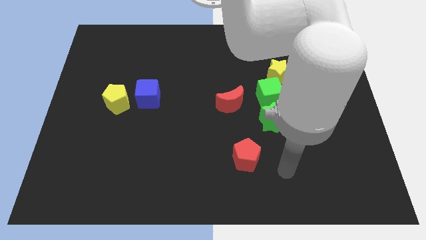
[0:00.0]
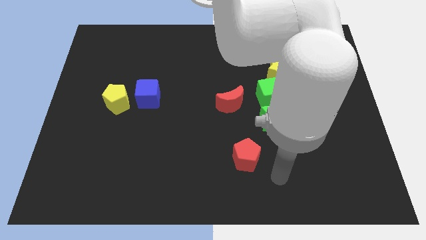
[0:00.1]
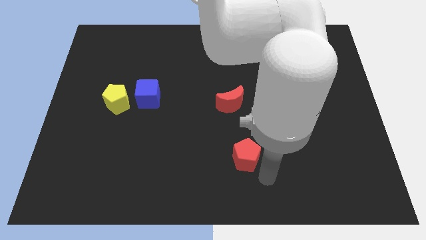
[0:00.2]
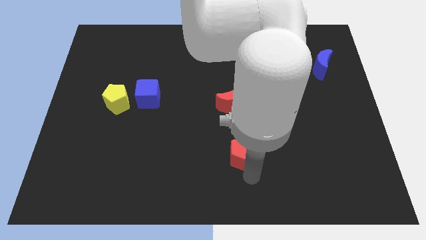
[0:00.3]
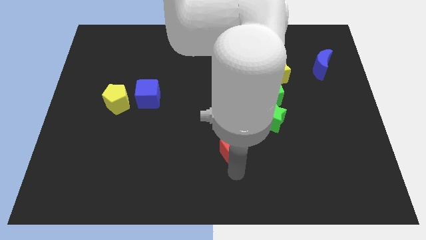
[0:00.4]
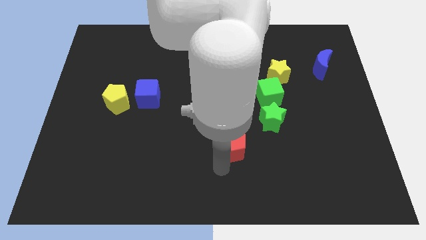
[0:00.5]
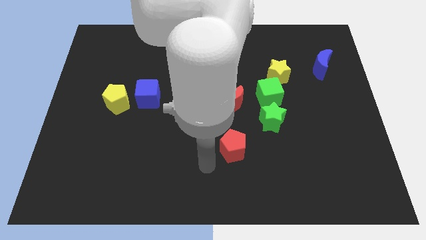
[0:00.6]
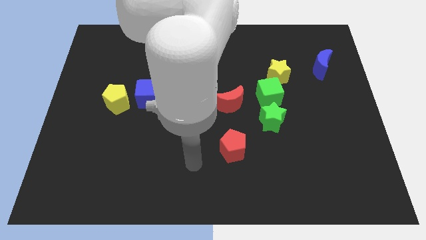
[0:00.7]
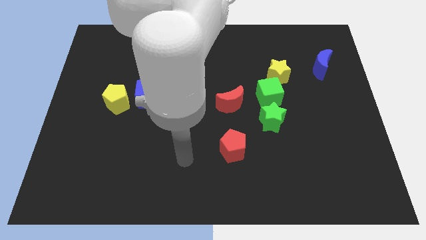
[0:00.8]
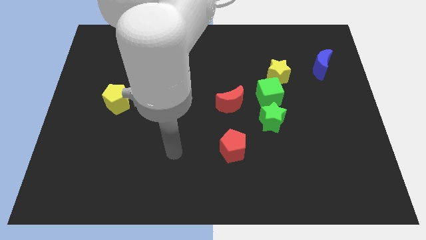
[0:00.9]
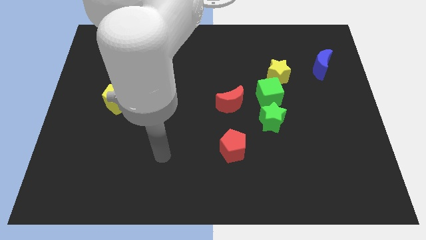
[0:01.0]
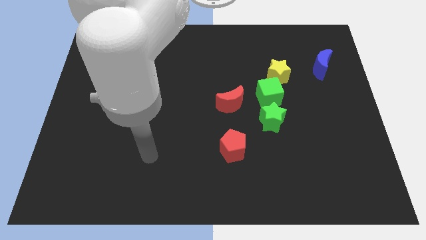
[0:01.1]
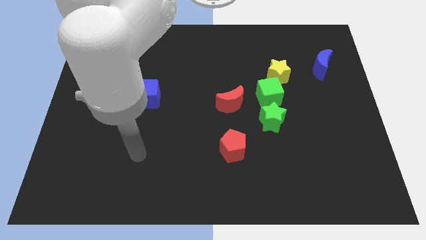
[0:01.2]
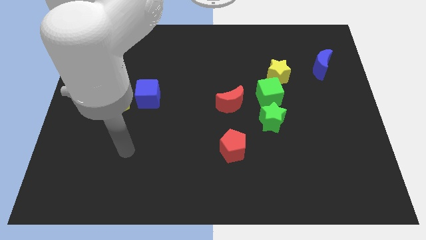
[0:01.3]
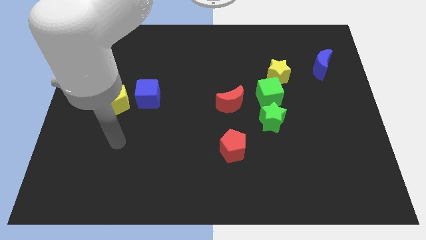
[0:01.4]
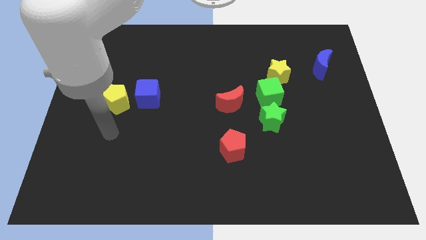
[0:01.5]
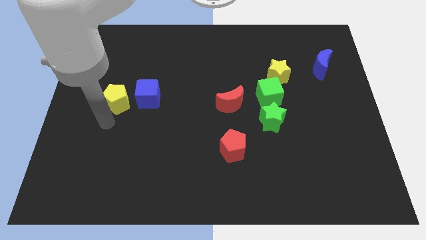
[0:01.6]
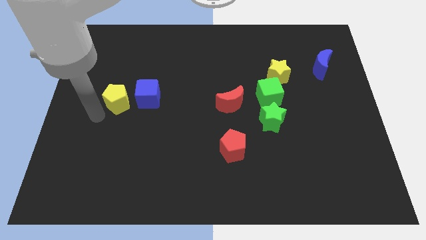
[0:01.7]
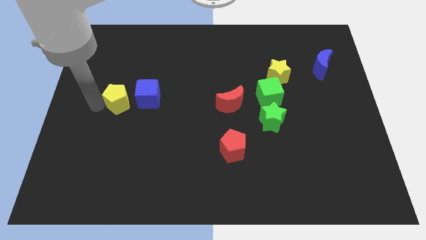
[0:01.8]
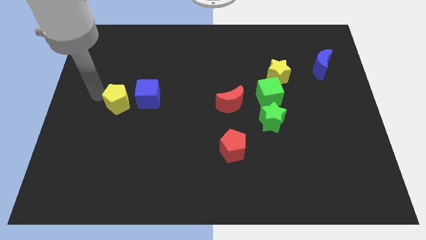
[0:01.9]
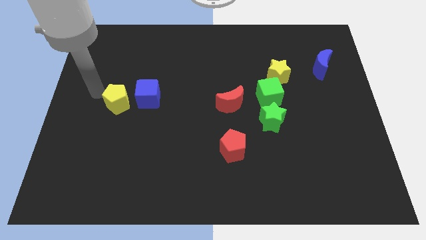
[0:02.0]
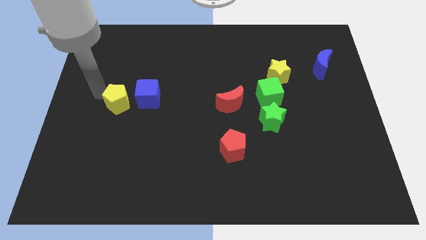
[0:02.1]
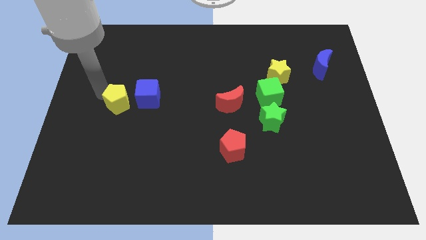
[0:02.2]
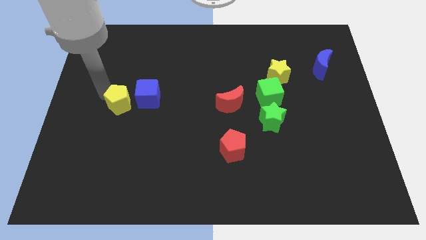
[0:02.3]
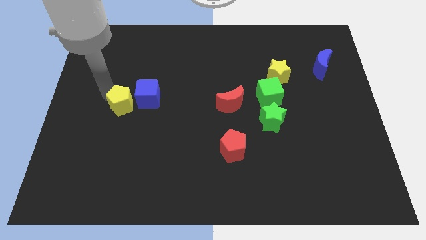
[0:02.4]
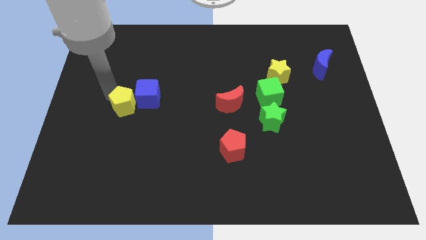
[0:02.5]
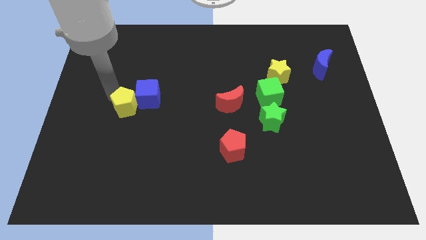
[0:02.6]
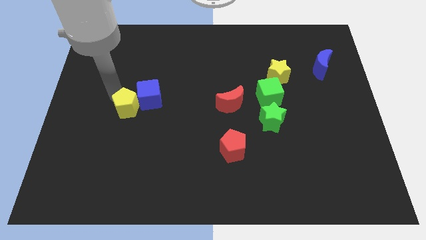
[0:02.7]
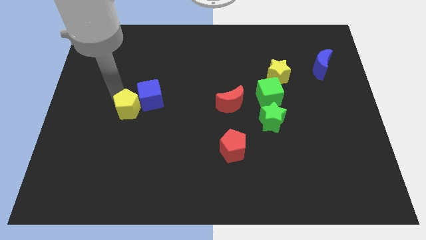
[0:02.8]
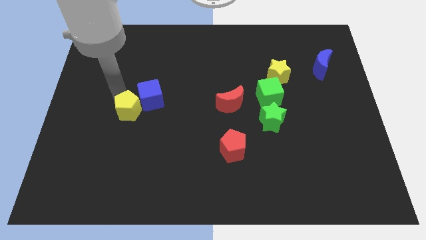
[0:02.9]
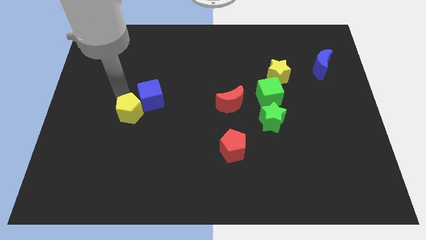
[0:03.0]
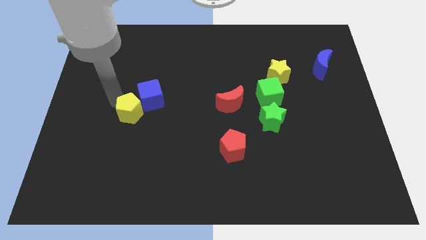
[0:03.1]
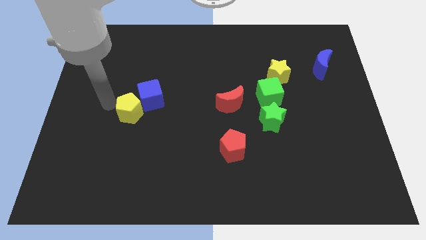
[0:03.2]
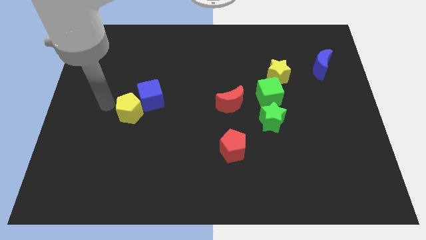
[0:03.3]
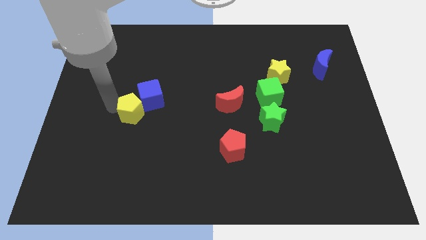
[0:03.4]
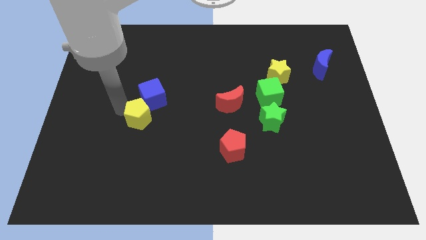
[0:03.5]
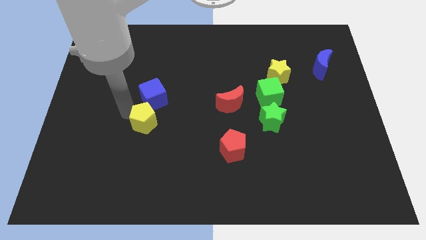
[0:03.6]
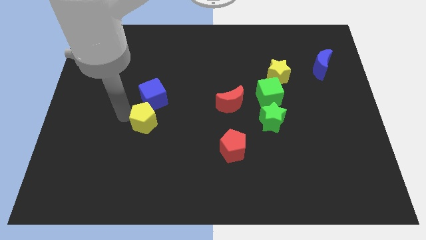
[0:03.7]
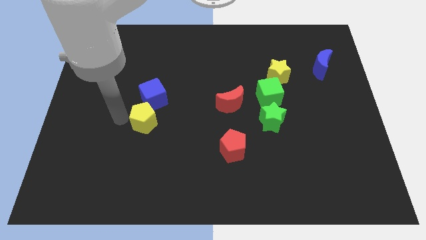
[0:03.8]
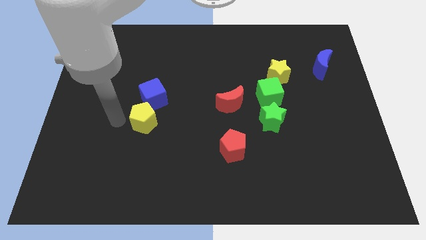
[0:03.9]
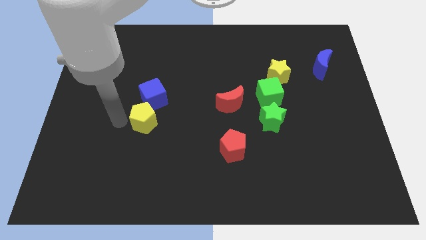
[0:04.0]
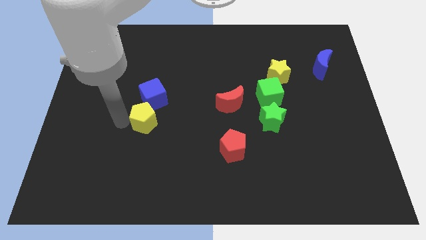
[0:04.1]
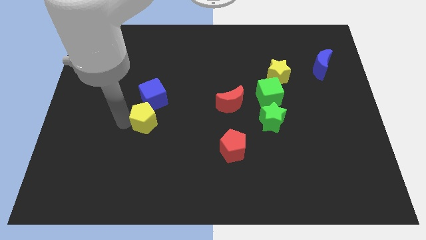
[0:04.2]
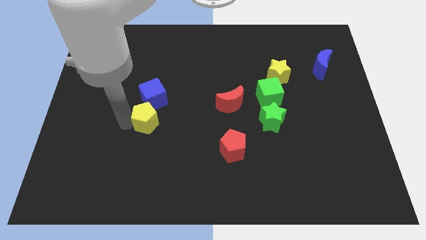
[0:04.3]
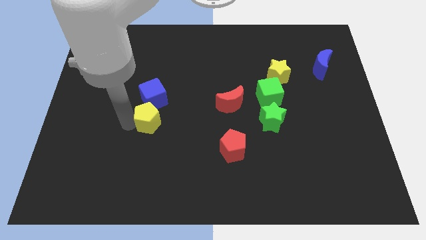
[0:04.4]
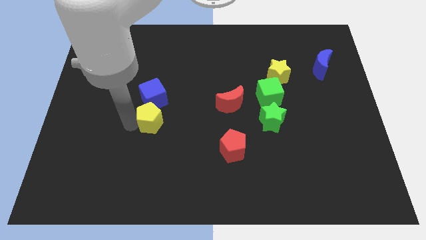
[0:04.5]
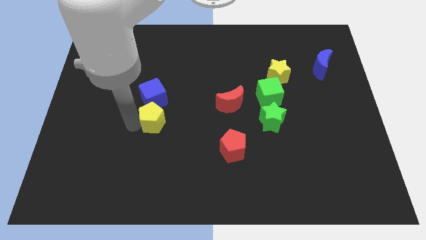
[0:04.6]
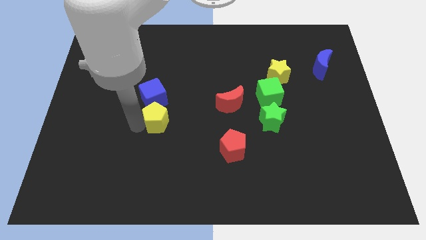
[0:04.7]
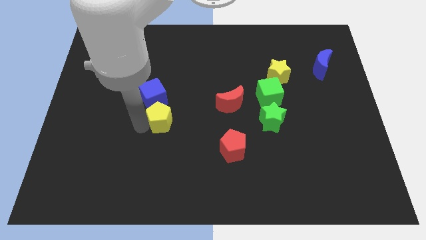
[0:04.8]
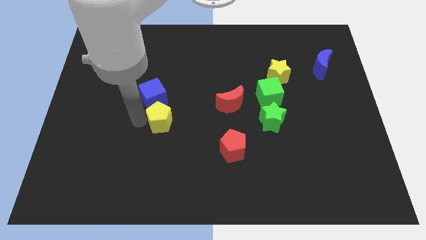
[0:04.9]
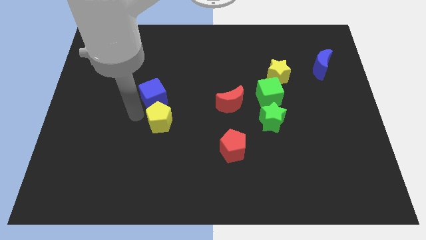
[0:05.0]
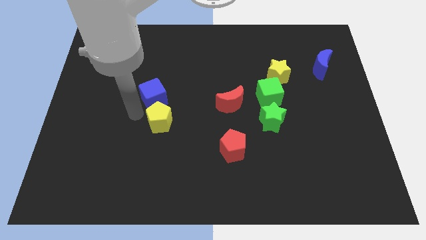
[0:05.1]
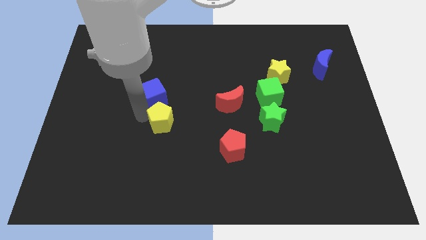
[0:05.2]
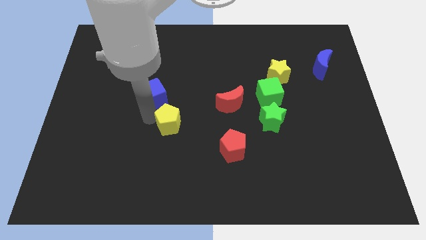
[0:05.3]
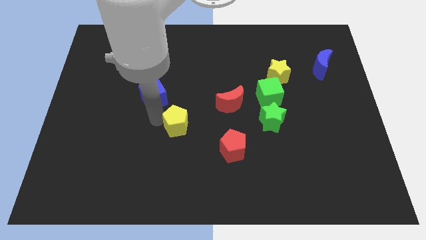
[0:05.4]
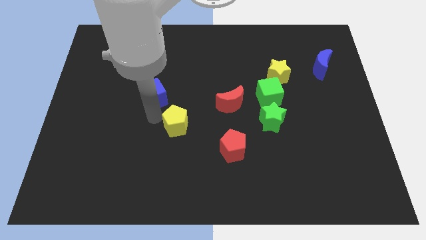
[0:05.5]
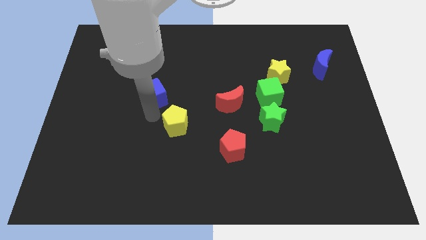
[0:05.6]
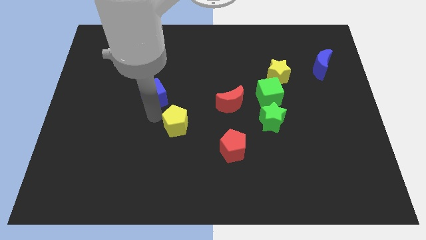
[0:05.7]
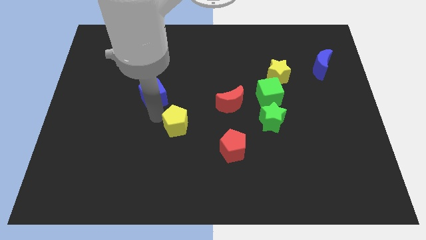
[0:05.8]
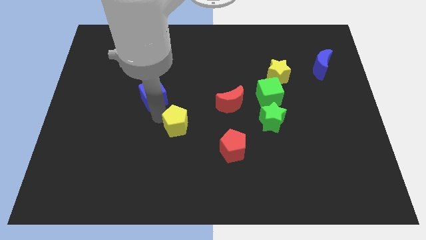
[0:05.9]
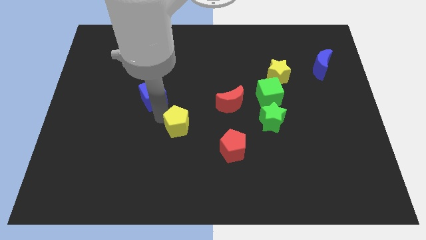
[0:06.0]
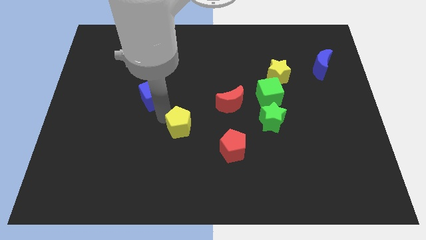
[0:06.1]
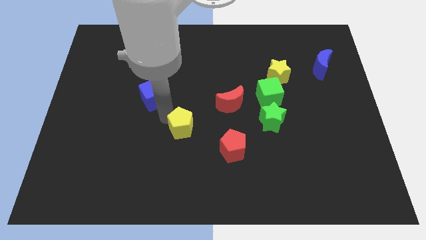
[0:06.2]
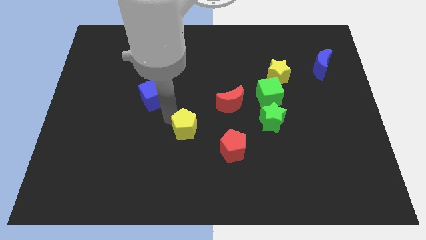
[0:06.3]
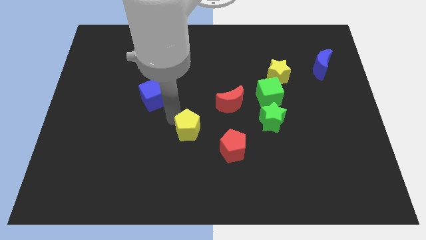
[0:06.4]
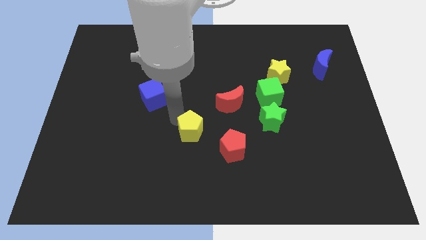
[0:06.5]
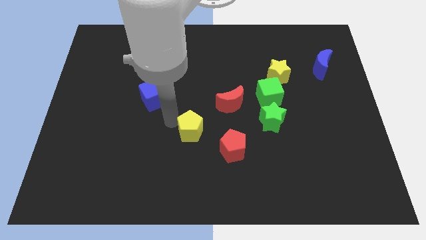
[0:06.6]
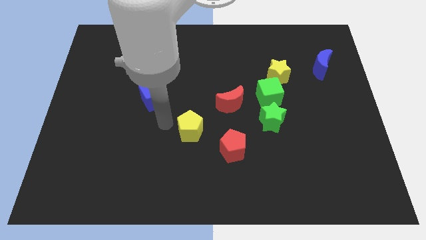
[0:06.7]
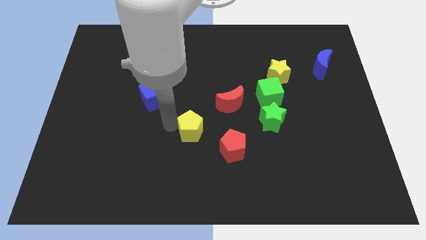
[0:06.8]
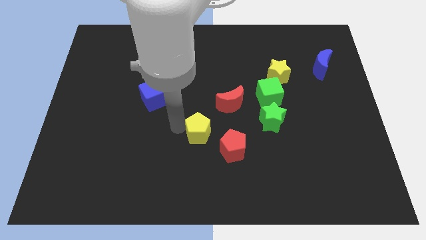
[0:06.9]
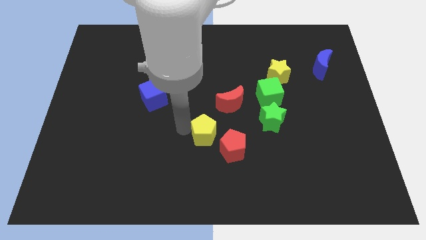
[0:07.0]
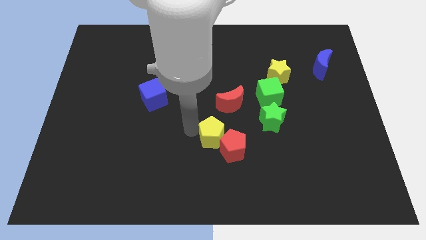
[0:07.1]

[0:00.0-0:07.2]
put the yellow pentagon close to the red pentagon
